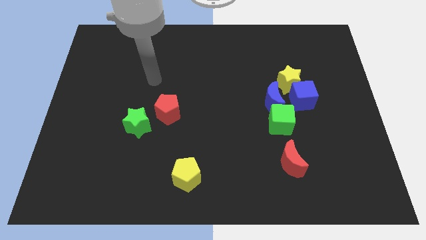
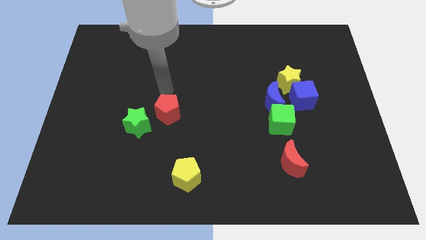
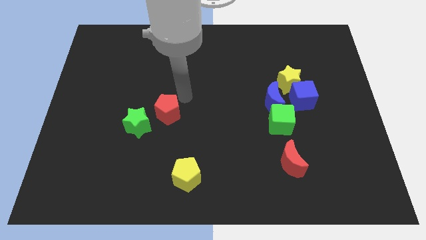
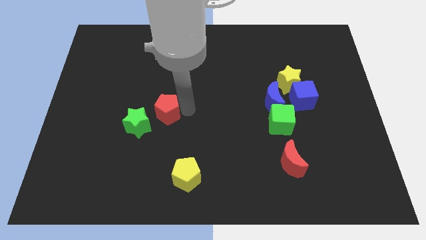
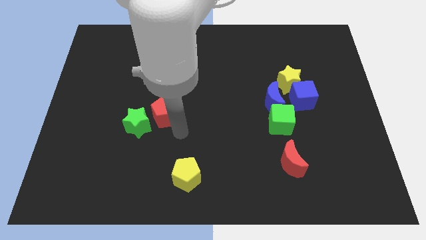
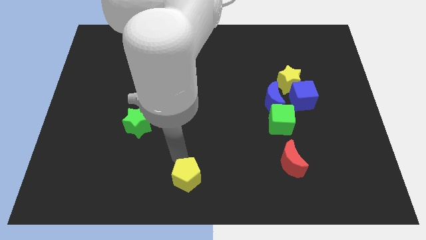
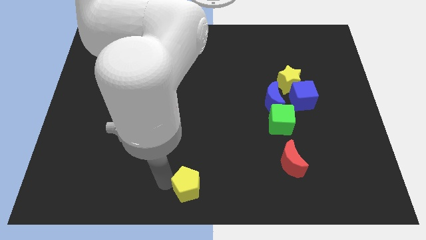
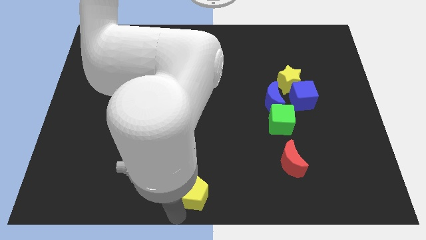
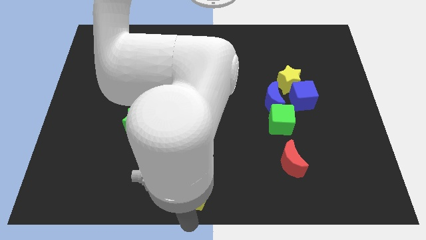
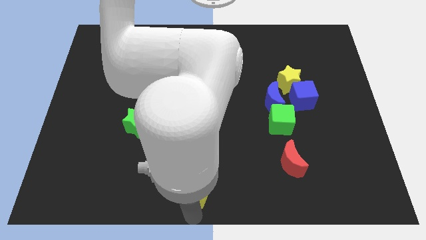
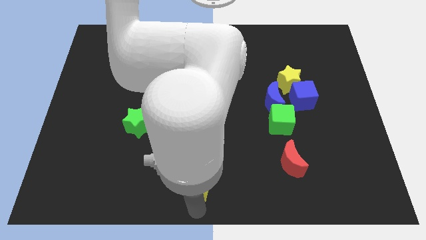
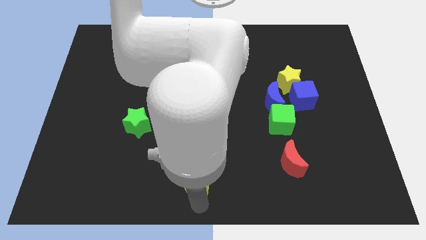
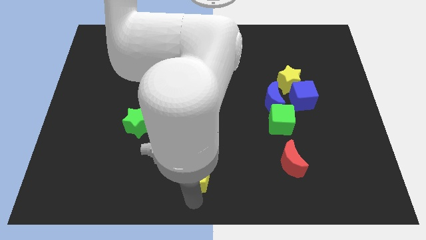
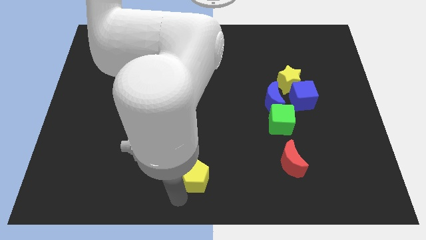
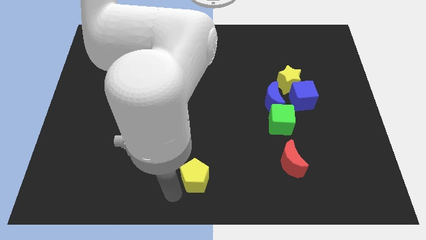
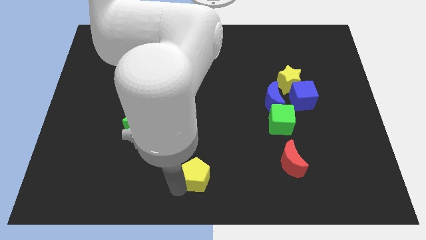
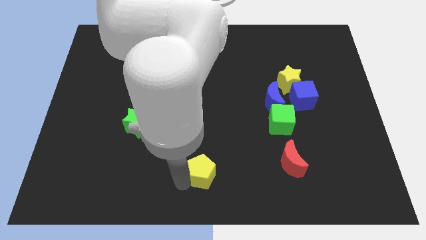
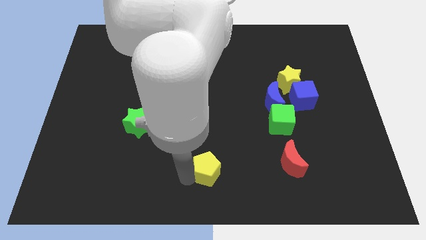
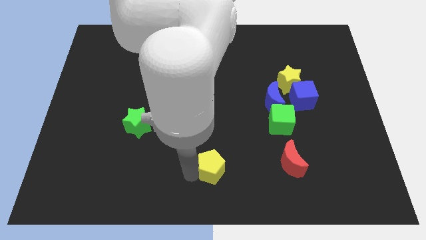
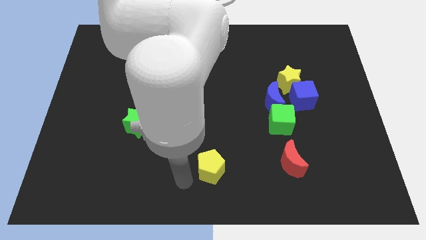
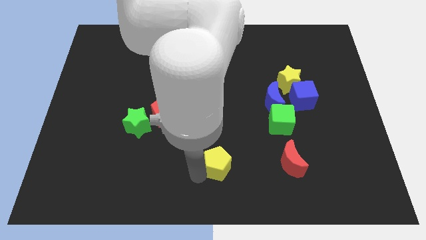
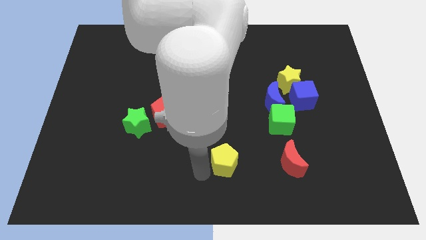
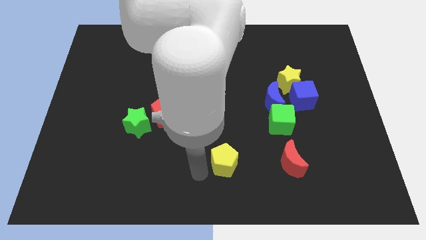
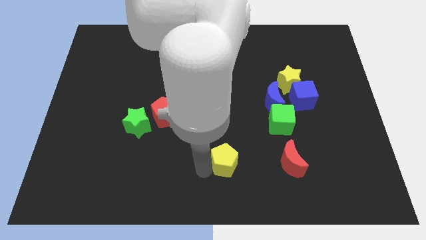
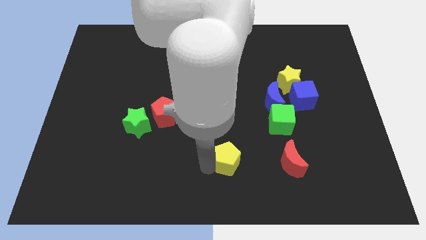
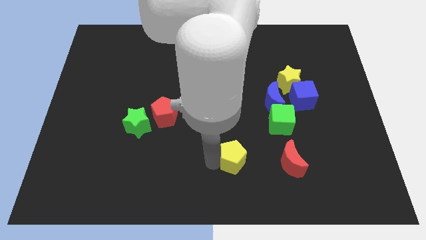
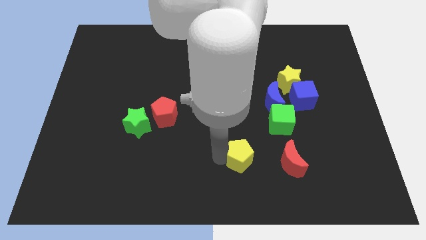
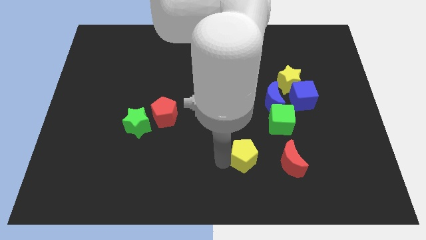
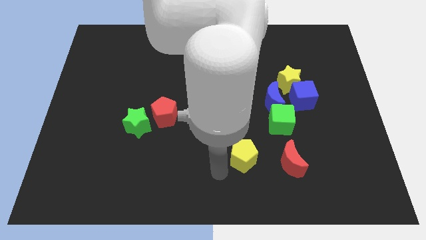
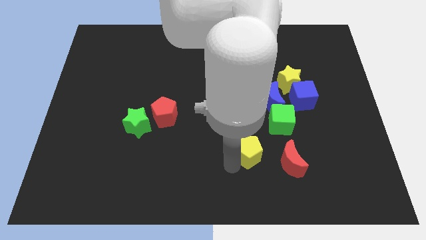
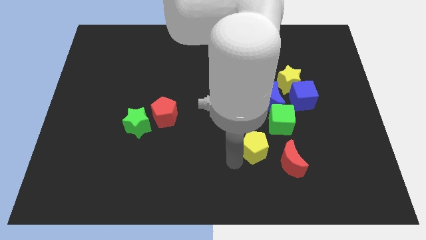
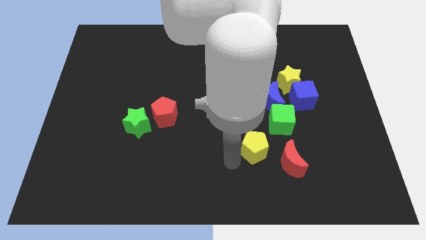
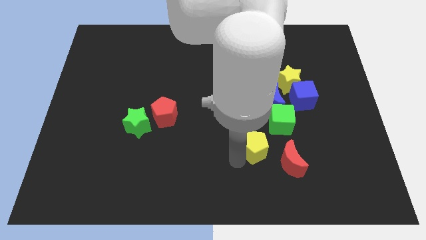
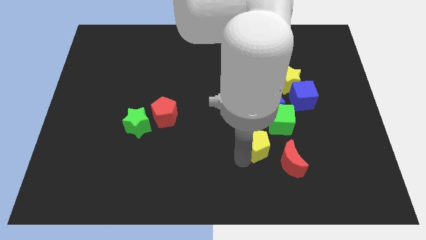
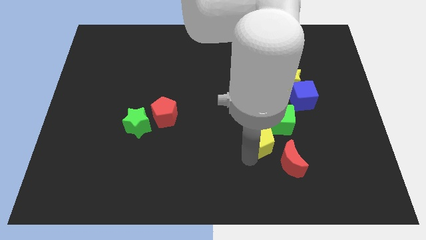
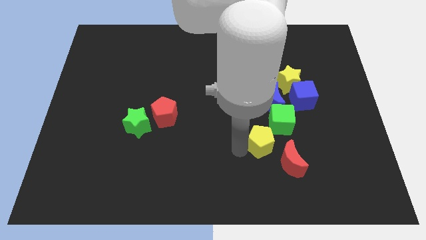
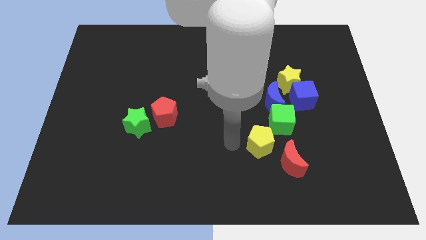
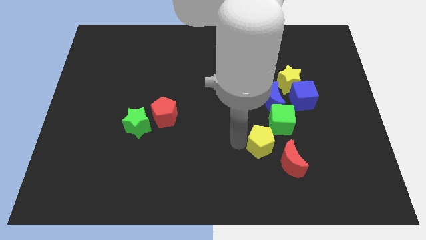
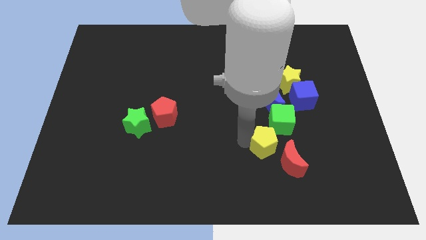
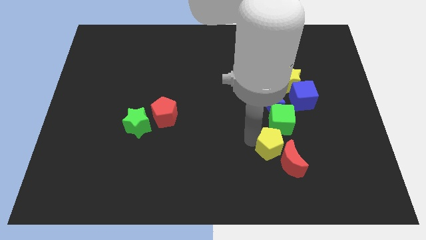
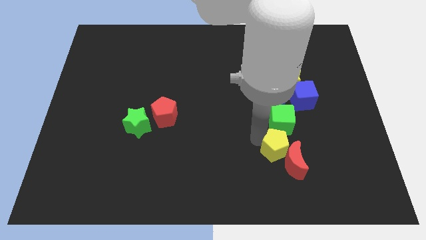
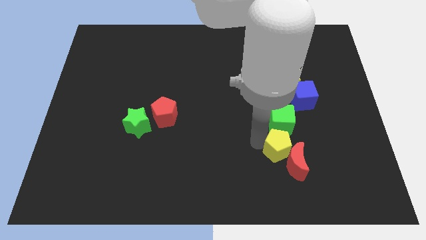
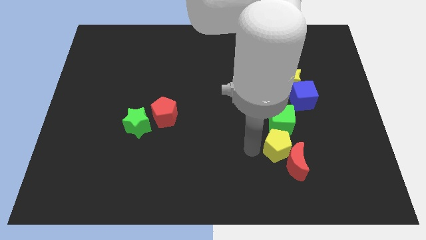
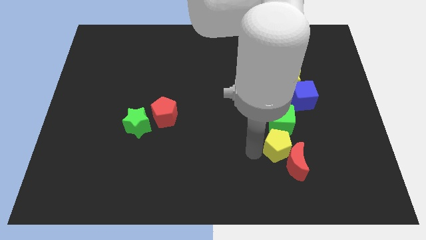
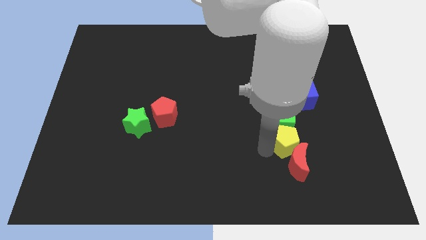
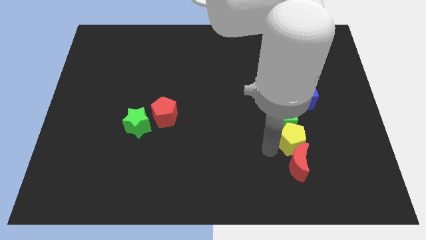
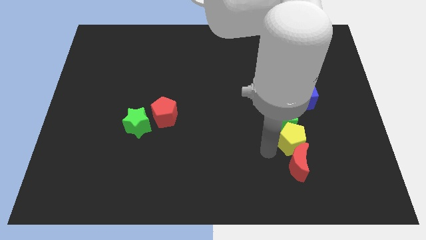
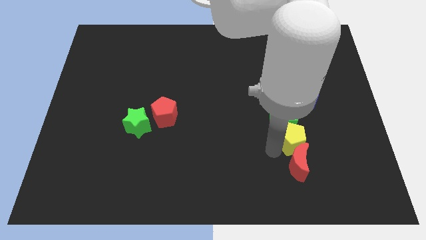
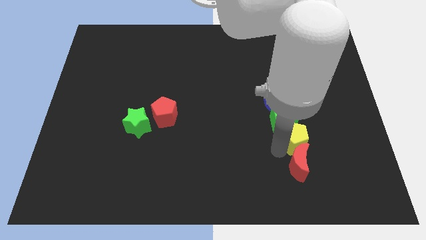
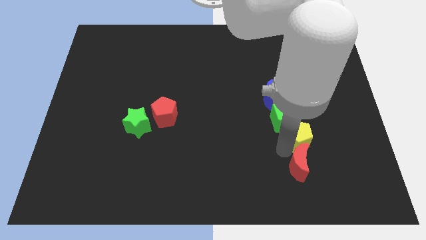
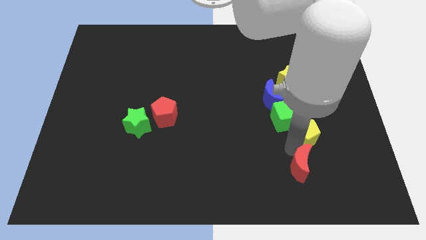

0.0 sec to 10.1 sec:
move the yellow pentagon just right of the green cube

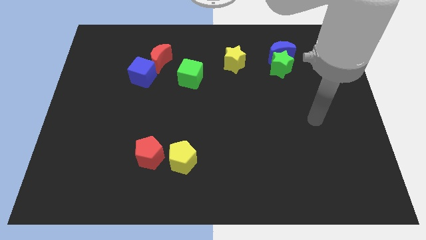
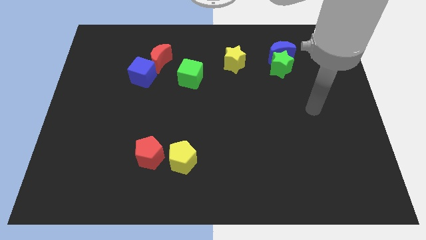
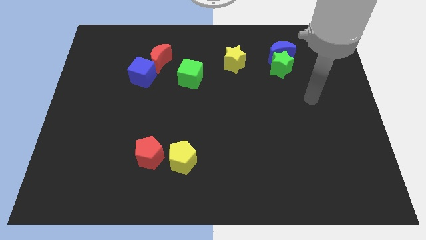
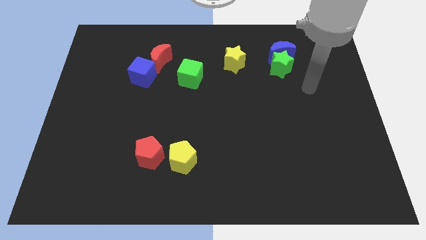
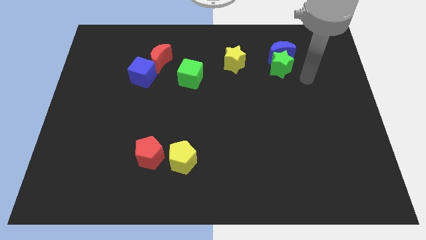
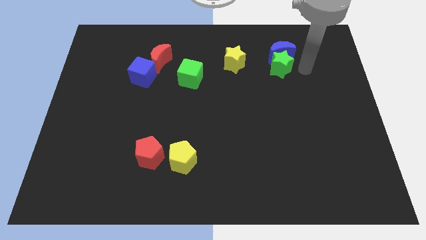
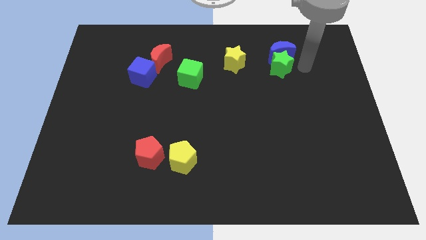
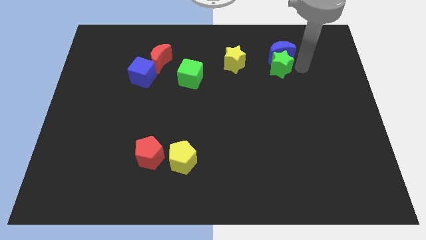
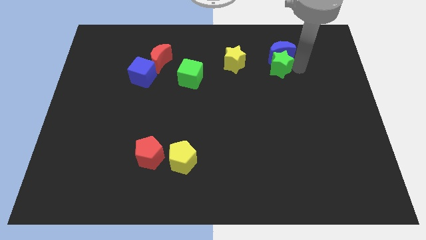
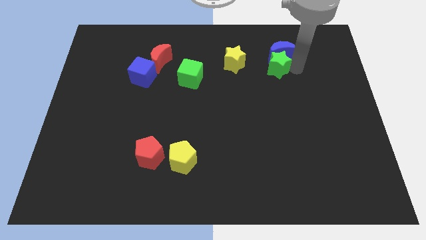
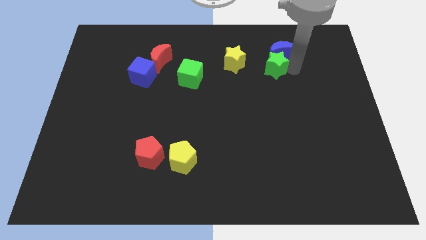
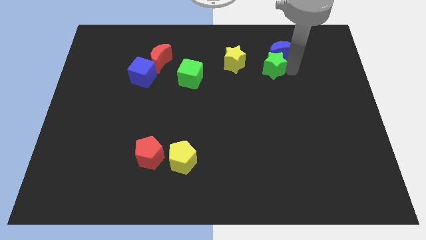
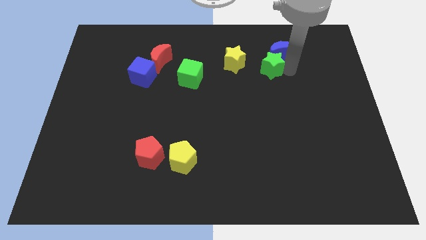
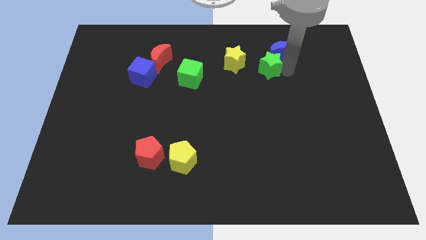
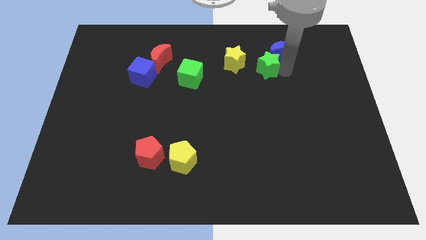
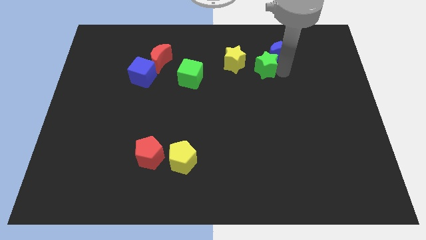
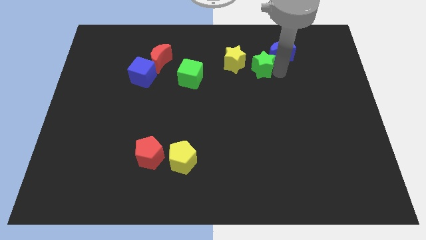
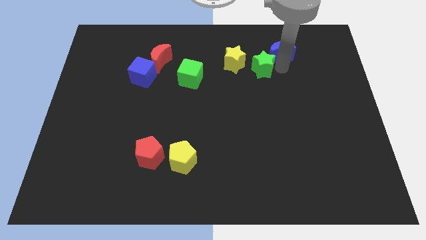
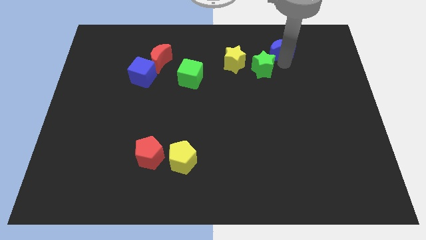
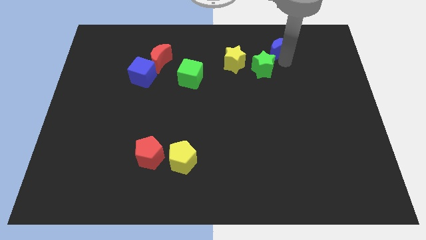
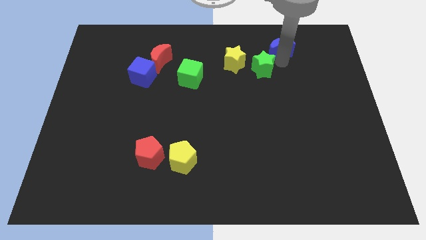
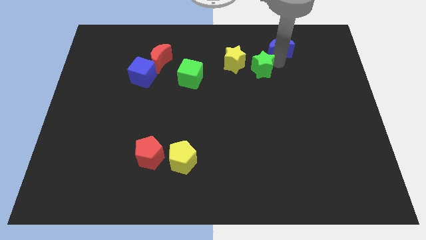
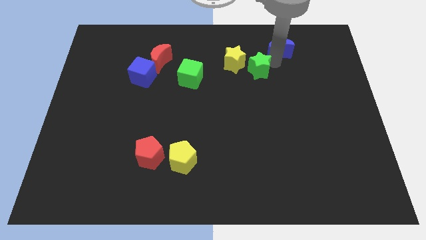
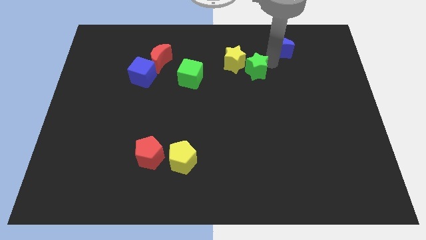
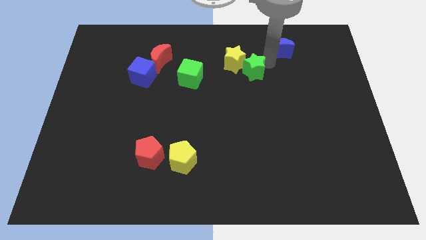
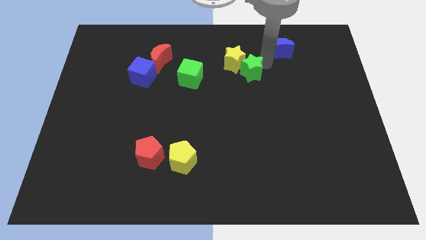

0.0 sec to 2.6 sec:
put the green star to the right of the green cube
